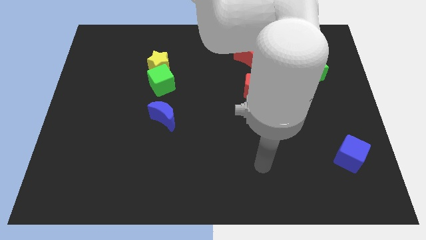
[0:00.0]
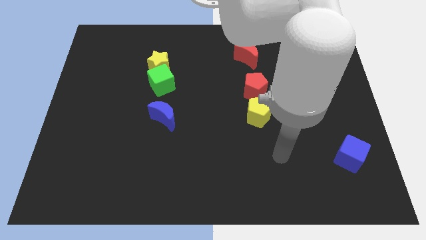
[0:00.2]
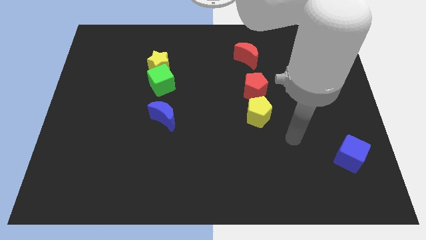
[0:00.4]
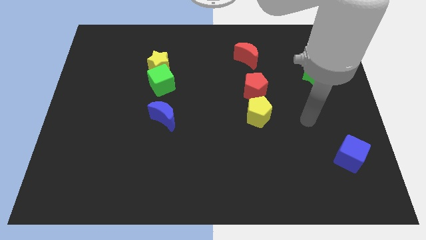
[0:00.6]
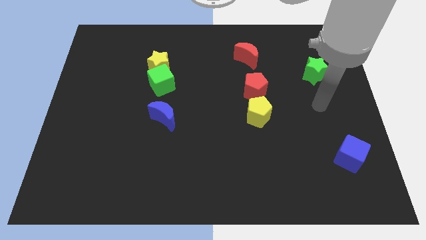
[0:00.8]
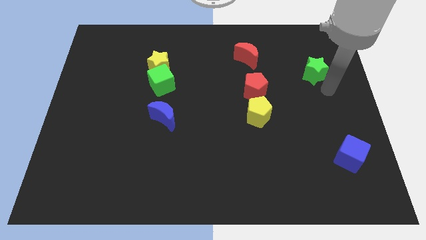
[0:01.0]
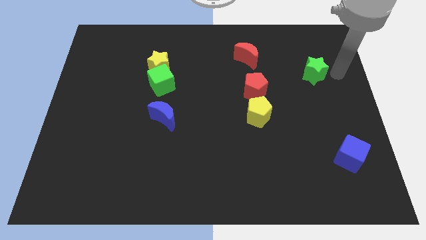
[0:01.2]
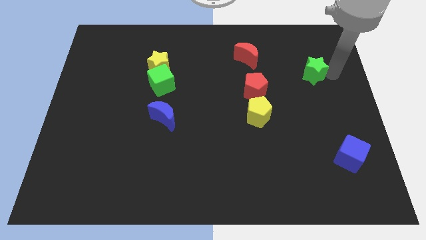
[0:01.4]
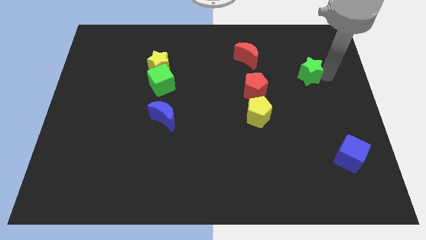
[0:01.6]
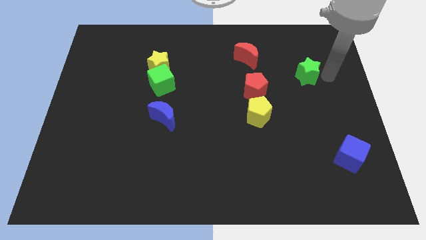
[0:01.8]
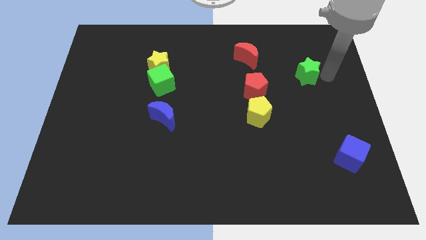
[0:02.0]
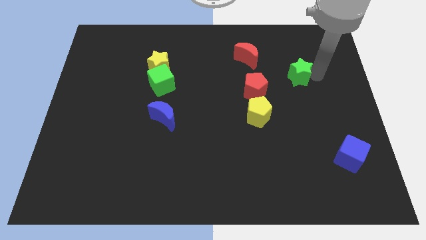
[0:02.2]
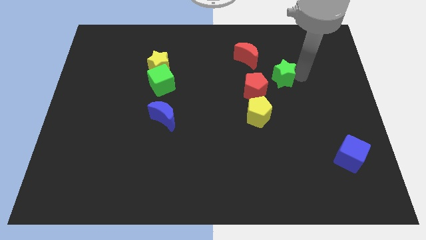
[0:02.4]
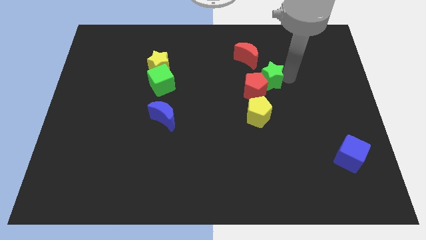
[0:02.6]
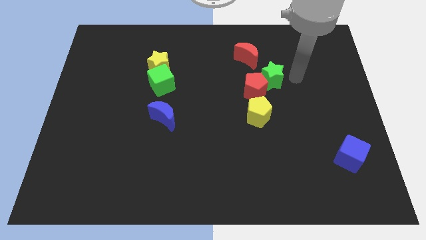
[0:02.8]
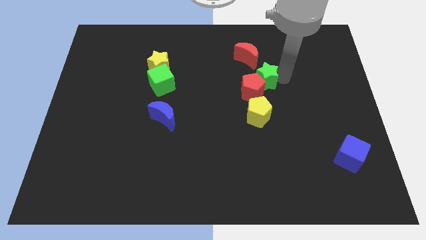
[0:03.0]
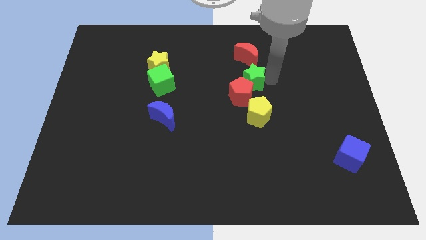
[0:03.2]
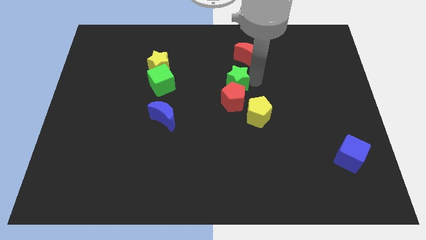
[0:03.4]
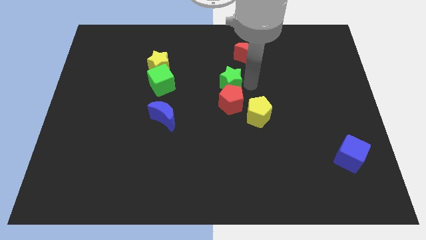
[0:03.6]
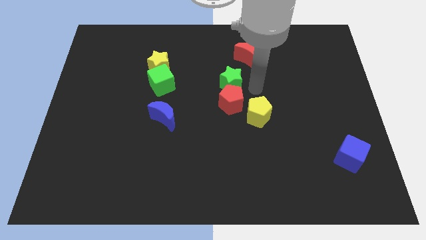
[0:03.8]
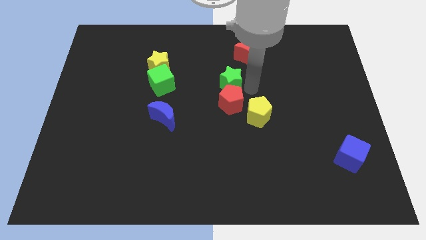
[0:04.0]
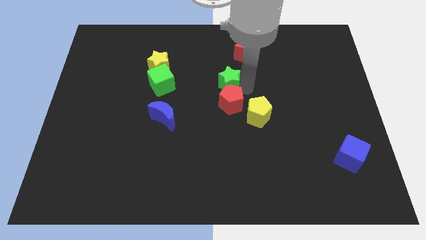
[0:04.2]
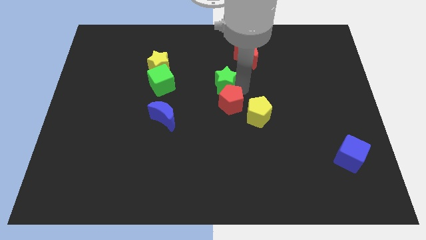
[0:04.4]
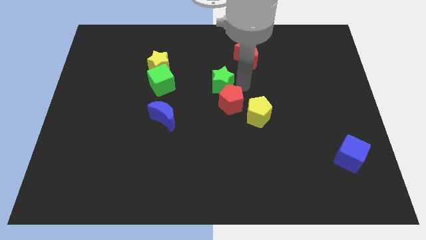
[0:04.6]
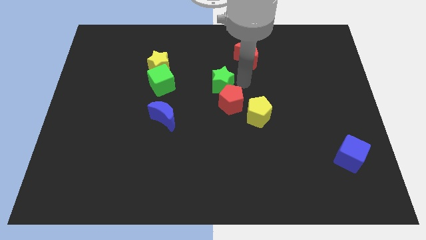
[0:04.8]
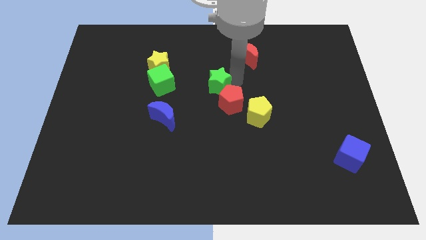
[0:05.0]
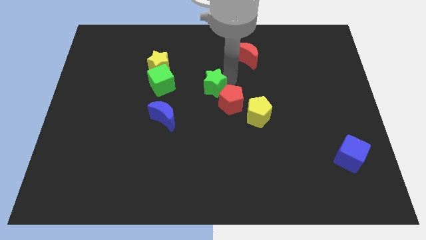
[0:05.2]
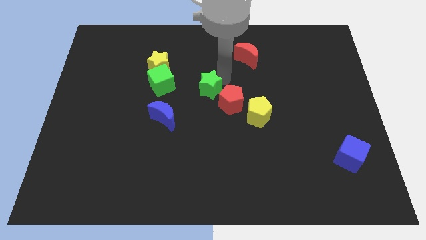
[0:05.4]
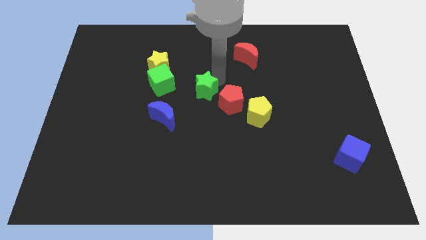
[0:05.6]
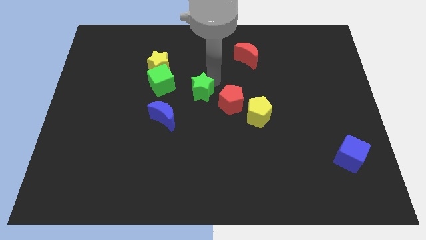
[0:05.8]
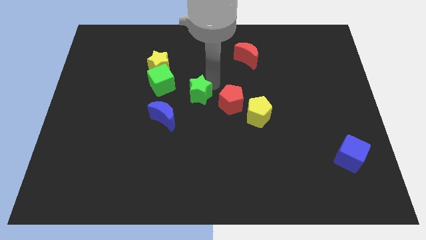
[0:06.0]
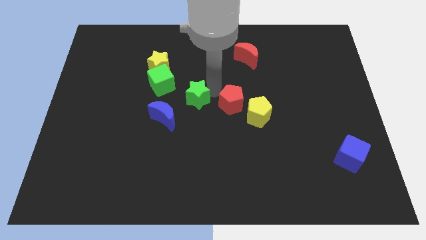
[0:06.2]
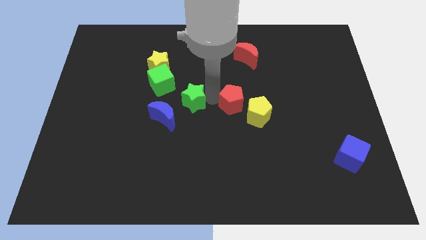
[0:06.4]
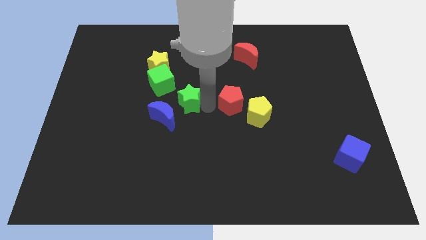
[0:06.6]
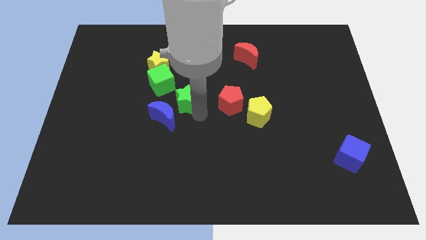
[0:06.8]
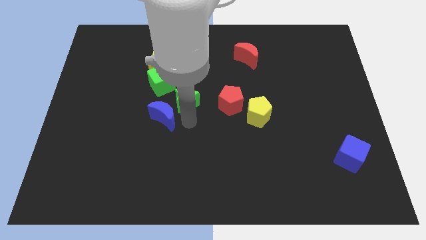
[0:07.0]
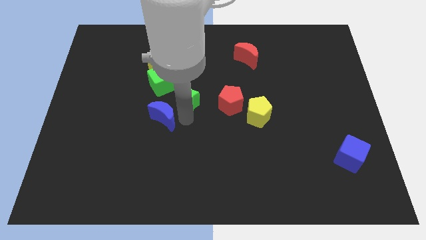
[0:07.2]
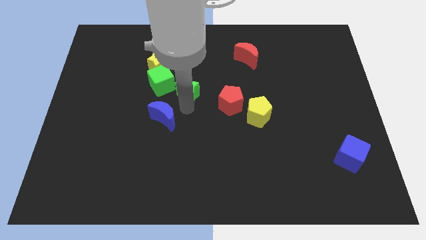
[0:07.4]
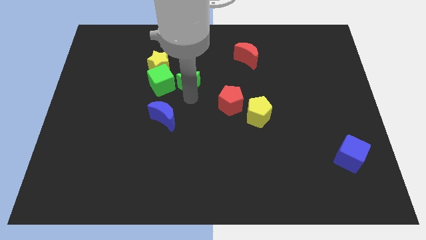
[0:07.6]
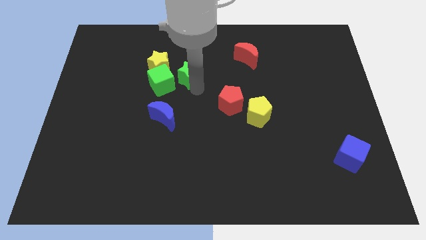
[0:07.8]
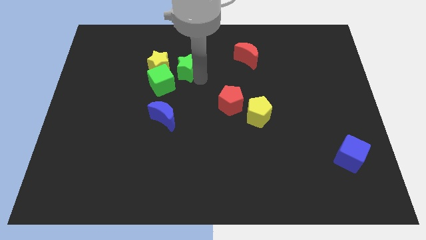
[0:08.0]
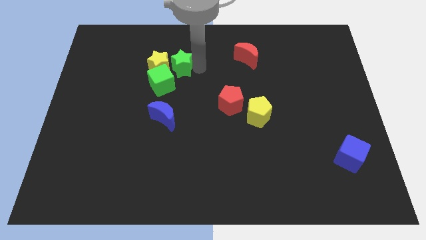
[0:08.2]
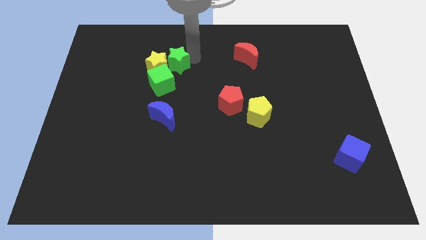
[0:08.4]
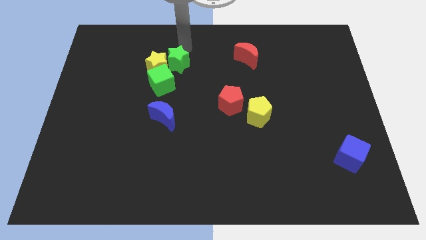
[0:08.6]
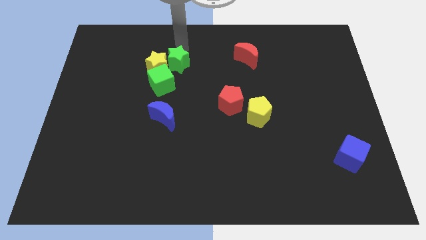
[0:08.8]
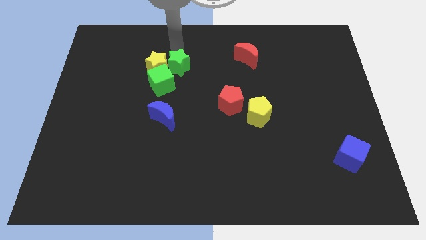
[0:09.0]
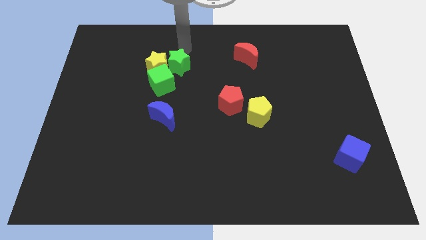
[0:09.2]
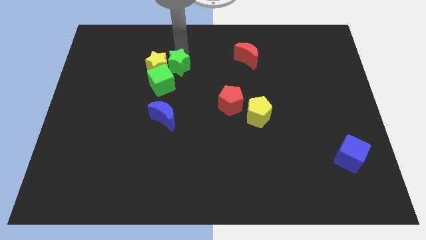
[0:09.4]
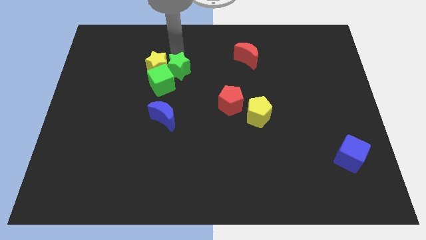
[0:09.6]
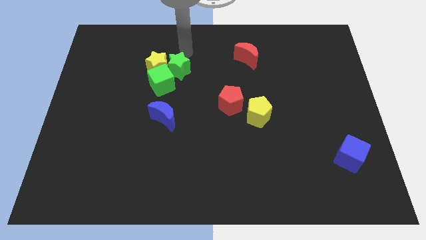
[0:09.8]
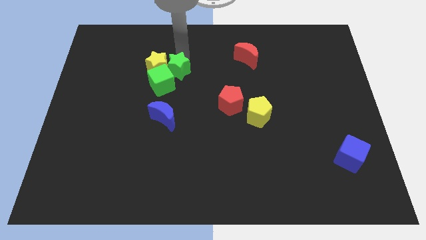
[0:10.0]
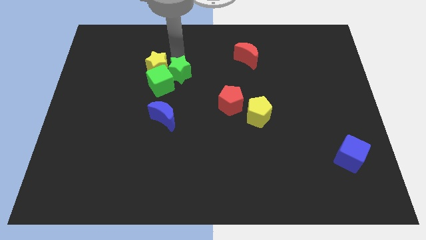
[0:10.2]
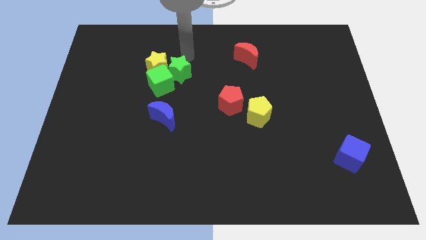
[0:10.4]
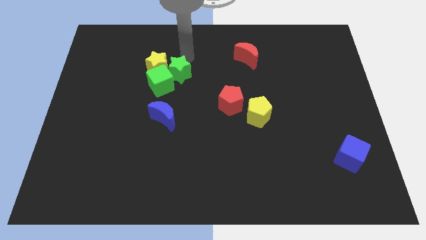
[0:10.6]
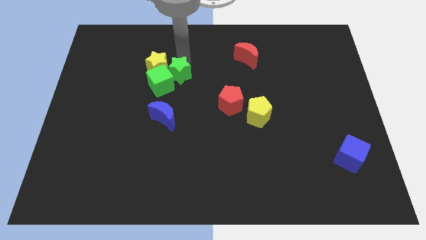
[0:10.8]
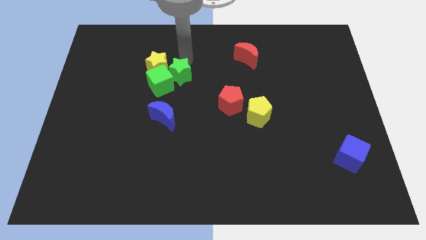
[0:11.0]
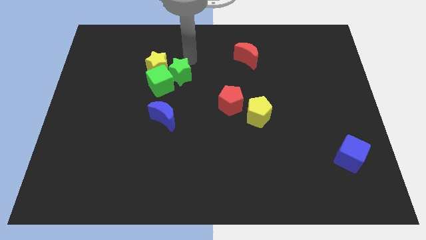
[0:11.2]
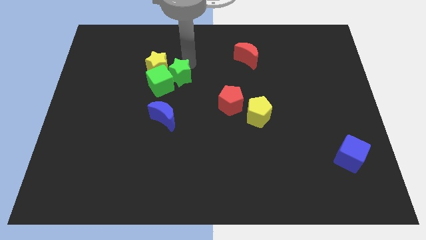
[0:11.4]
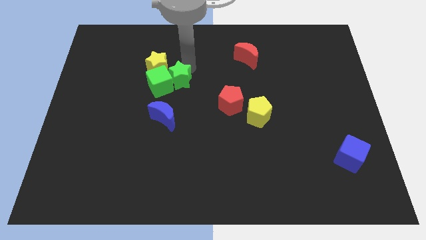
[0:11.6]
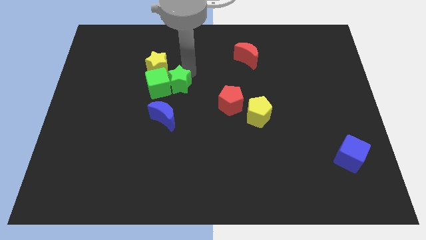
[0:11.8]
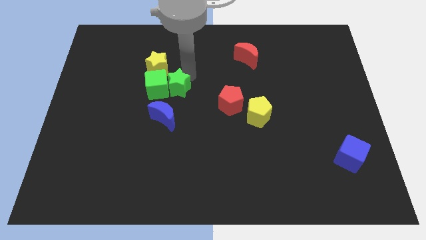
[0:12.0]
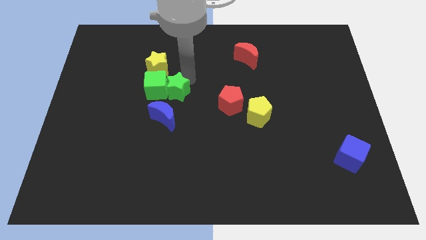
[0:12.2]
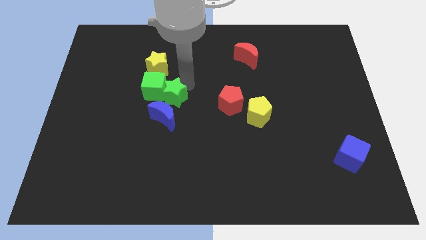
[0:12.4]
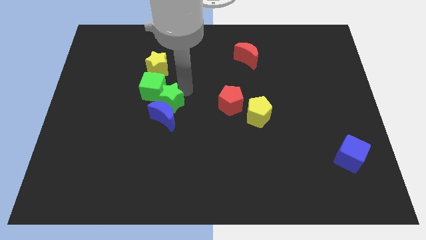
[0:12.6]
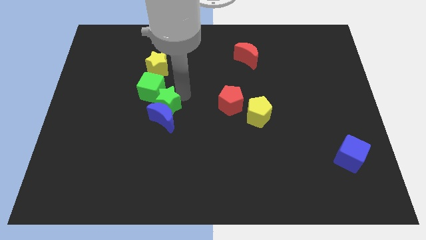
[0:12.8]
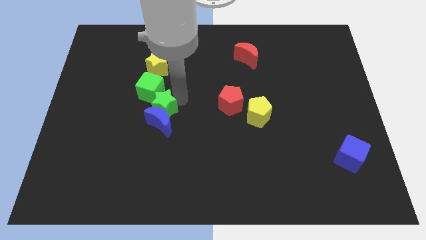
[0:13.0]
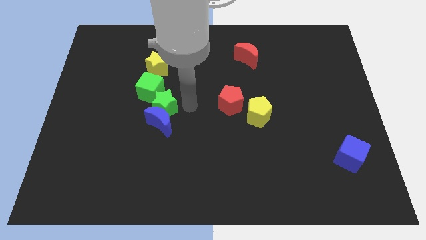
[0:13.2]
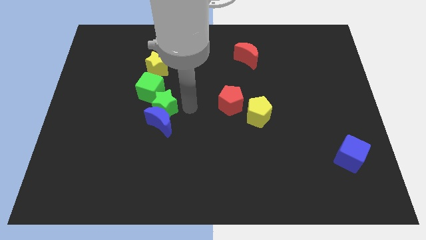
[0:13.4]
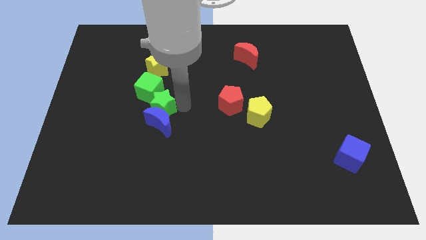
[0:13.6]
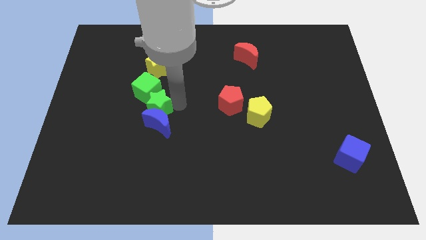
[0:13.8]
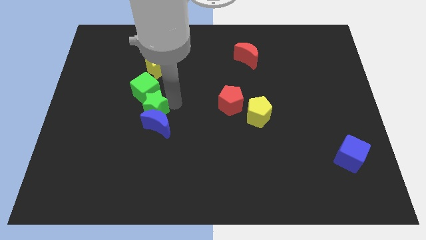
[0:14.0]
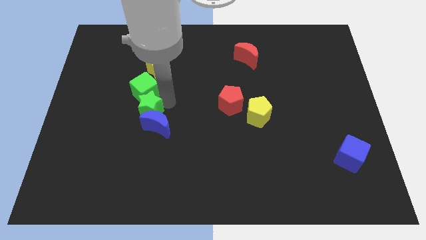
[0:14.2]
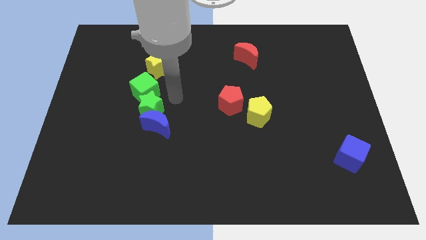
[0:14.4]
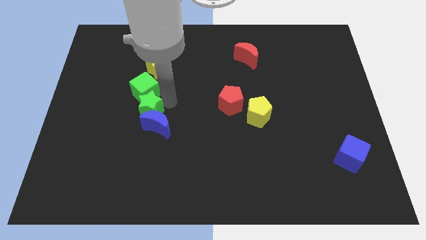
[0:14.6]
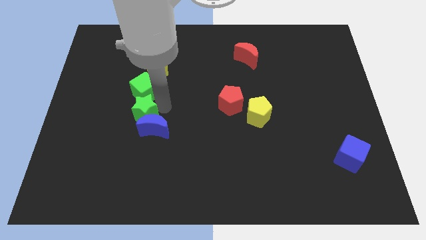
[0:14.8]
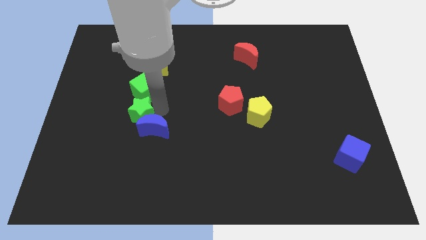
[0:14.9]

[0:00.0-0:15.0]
slide the green star just left of the blue moon
